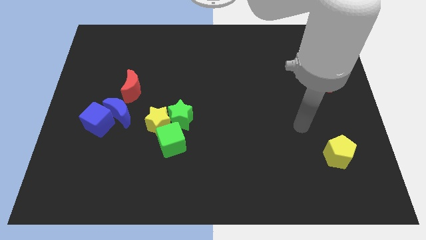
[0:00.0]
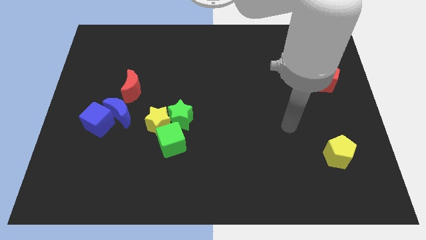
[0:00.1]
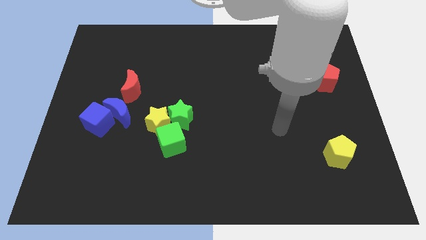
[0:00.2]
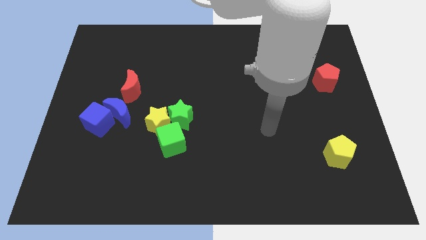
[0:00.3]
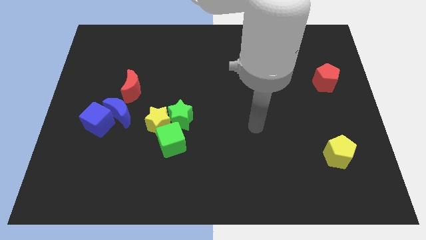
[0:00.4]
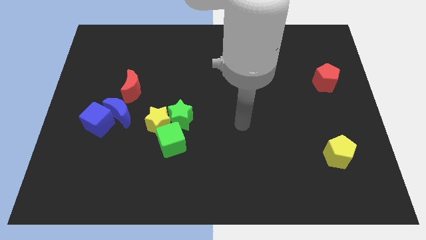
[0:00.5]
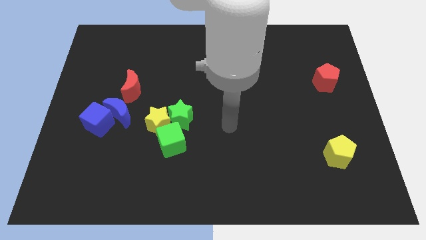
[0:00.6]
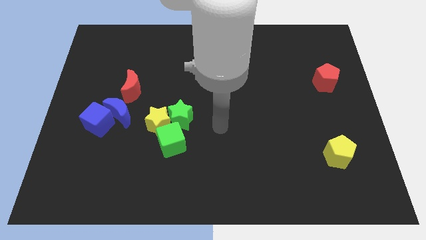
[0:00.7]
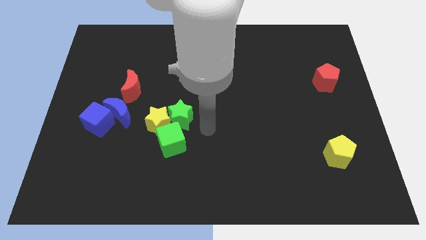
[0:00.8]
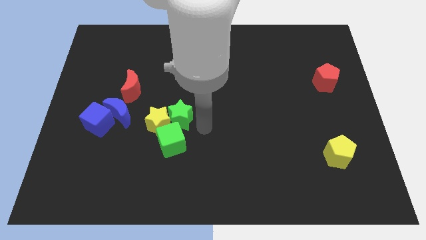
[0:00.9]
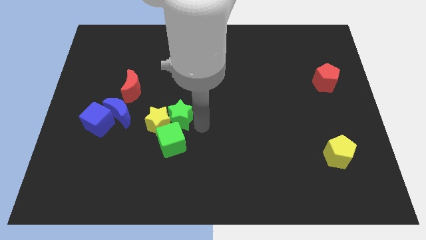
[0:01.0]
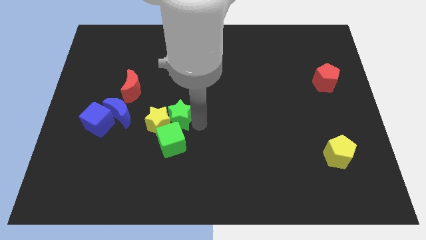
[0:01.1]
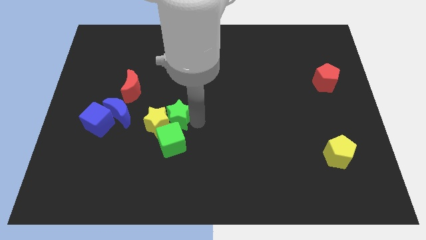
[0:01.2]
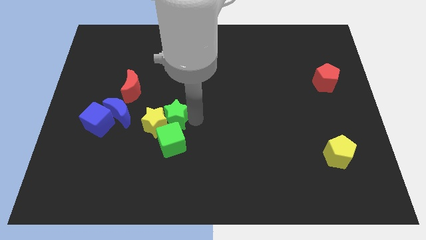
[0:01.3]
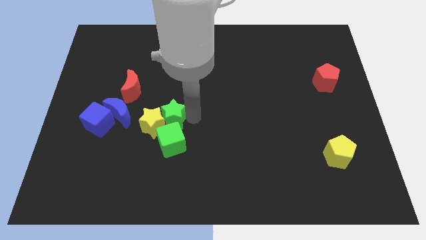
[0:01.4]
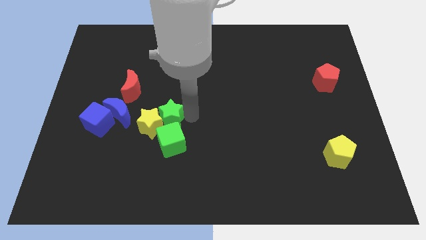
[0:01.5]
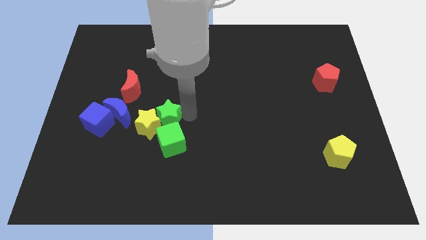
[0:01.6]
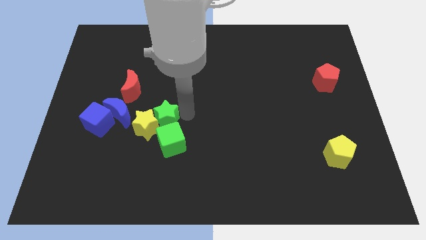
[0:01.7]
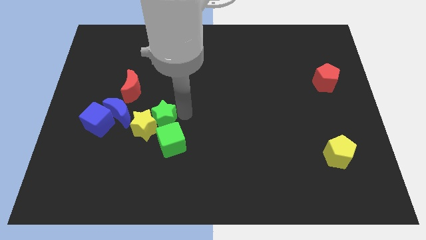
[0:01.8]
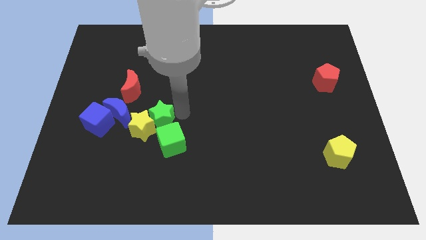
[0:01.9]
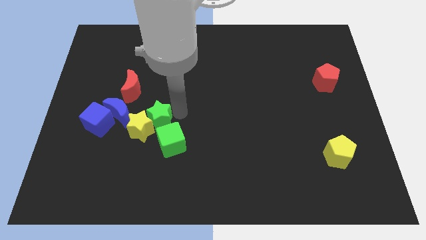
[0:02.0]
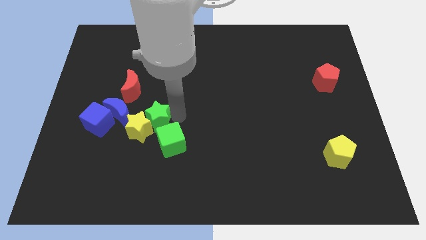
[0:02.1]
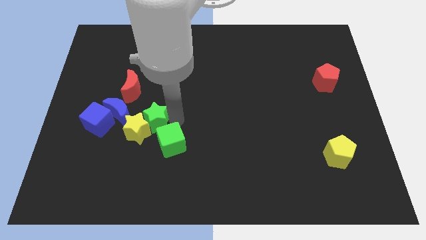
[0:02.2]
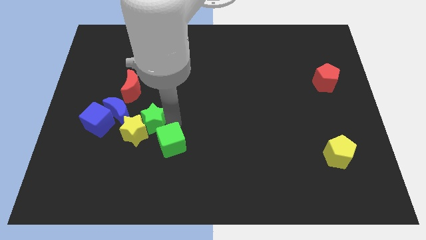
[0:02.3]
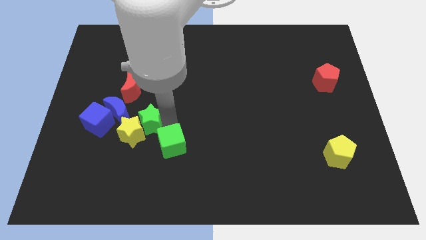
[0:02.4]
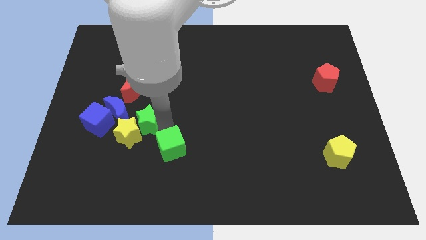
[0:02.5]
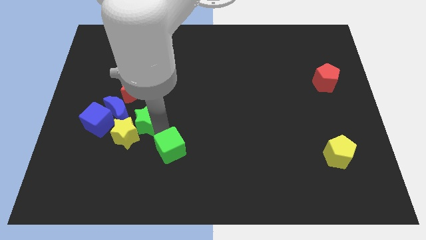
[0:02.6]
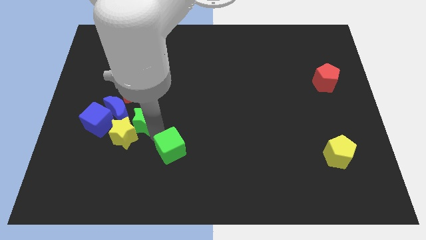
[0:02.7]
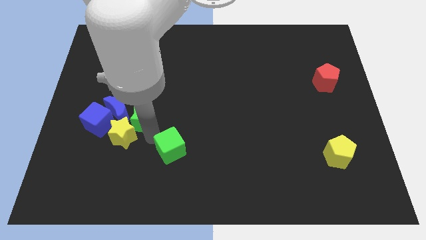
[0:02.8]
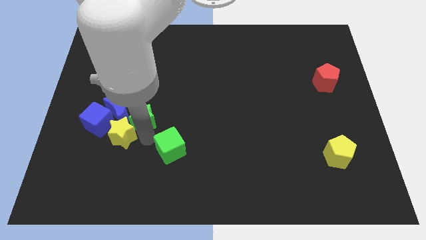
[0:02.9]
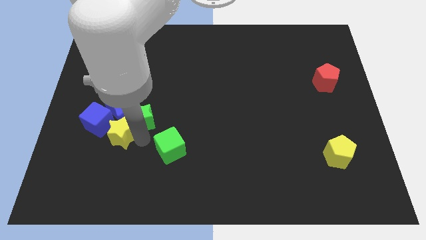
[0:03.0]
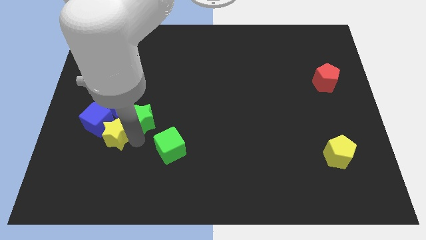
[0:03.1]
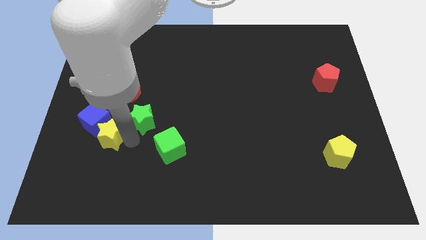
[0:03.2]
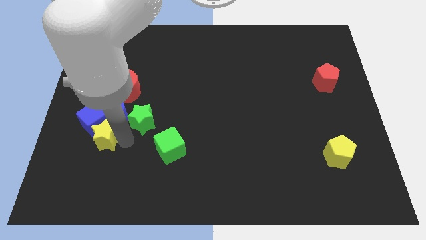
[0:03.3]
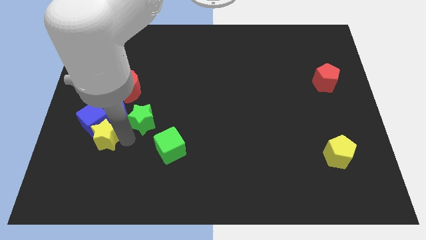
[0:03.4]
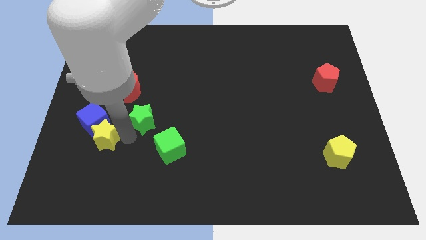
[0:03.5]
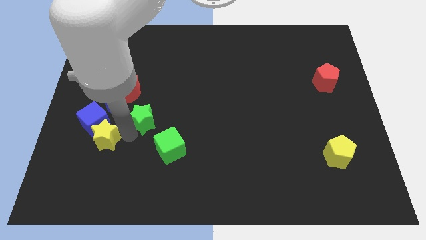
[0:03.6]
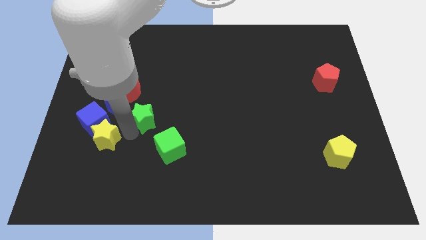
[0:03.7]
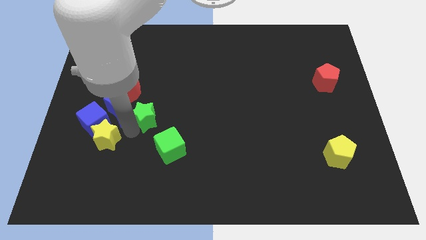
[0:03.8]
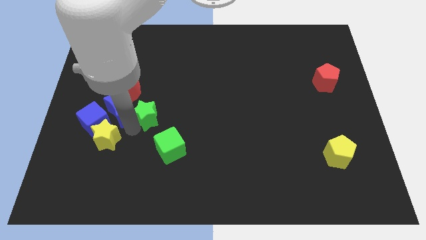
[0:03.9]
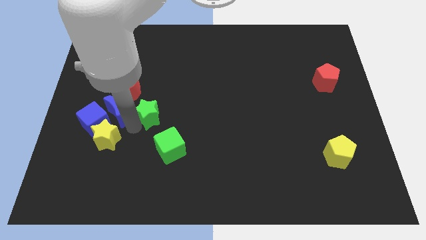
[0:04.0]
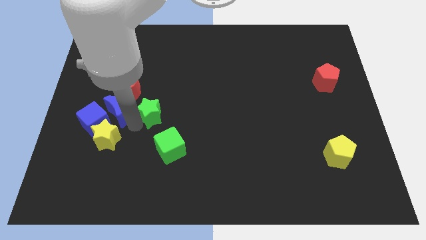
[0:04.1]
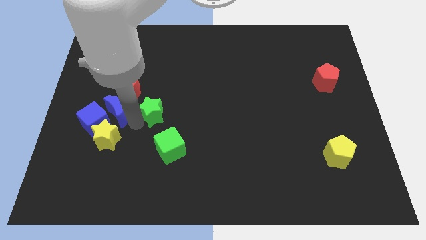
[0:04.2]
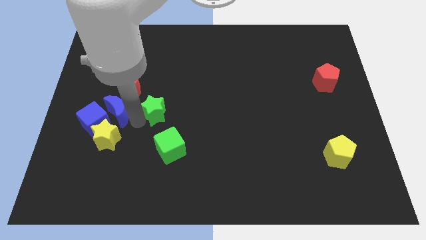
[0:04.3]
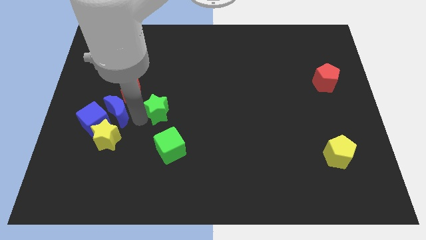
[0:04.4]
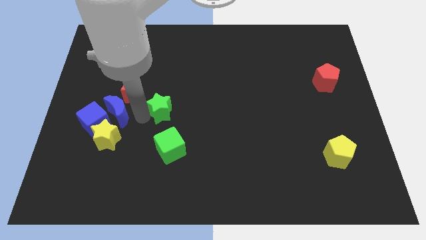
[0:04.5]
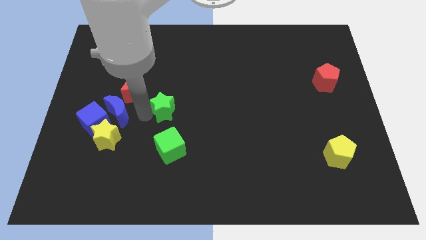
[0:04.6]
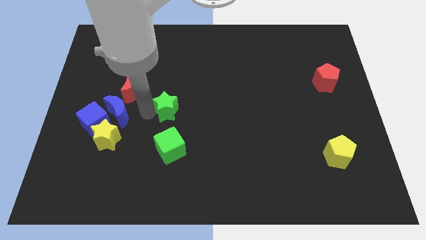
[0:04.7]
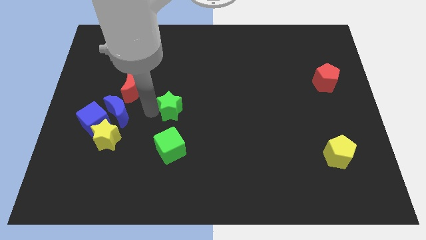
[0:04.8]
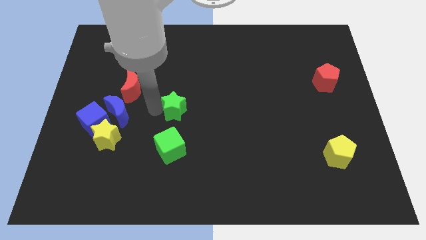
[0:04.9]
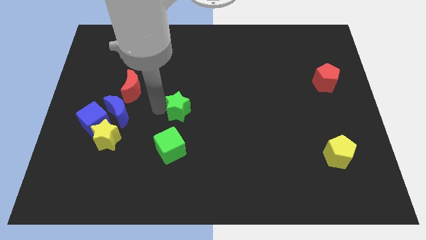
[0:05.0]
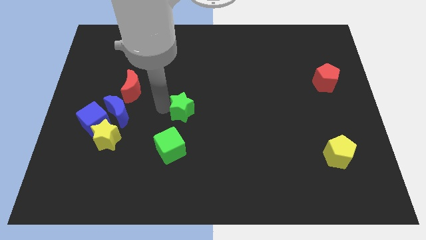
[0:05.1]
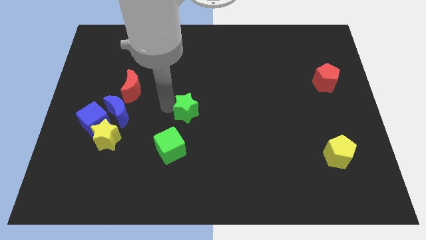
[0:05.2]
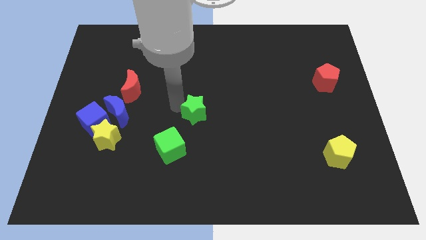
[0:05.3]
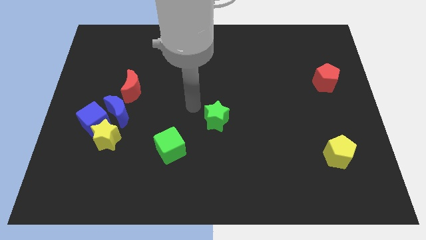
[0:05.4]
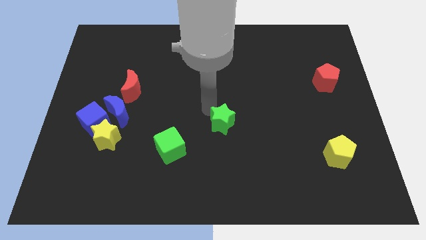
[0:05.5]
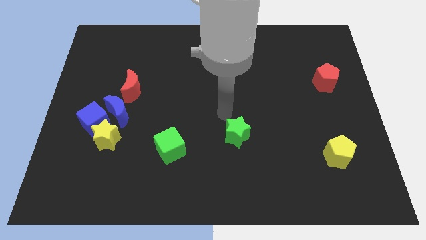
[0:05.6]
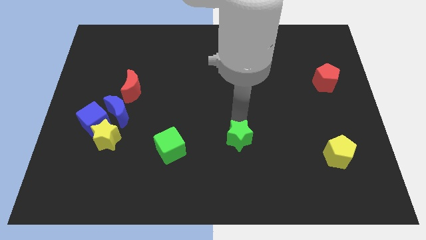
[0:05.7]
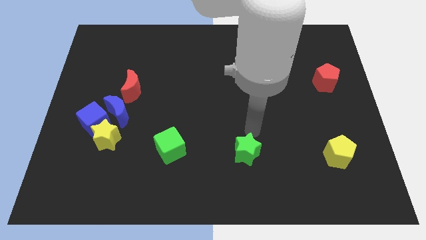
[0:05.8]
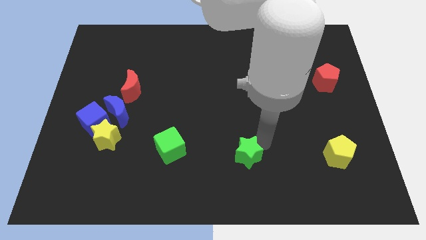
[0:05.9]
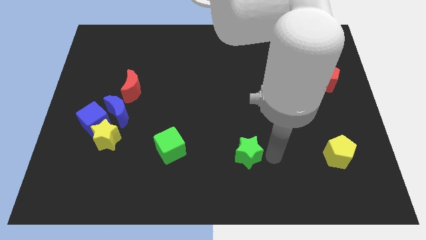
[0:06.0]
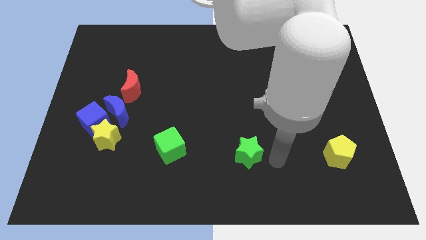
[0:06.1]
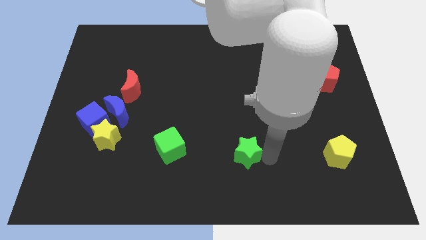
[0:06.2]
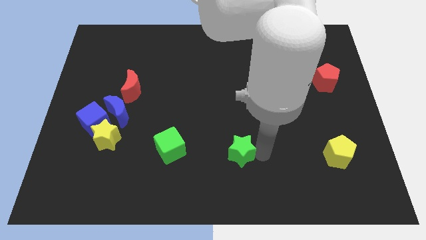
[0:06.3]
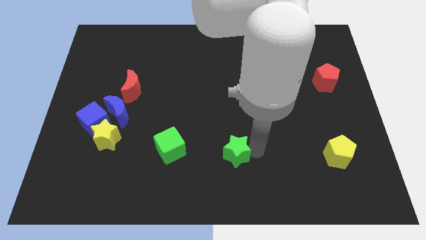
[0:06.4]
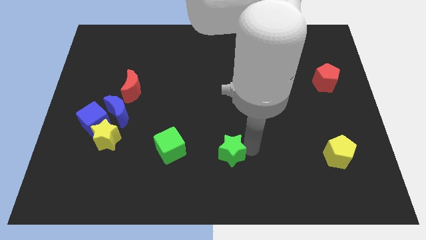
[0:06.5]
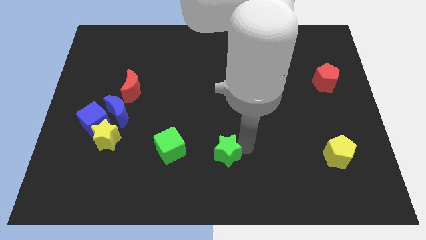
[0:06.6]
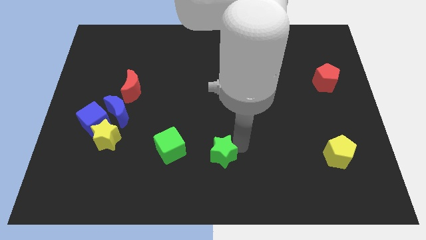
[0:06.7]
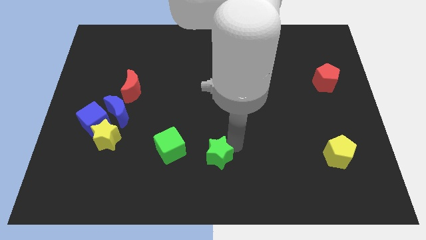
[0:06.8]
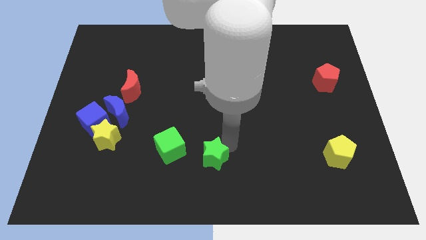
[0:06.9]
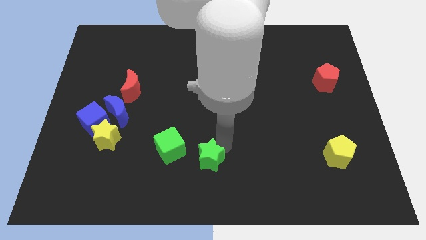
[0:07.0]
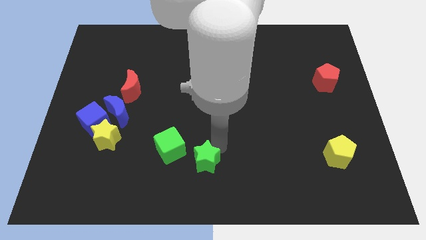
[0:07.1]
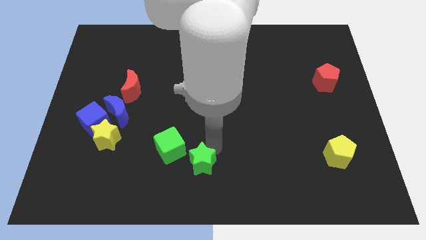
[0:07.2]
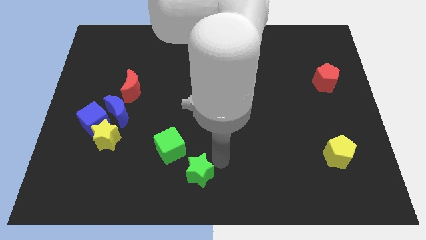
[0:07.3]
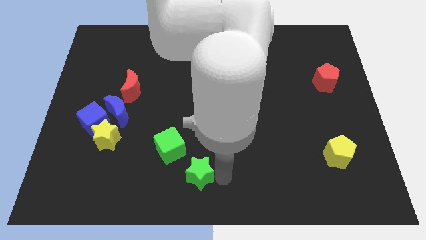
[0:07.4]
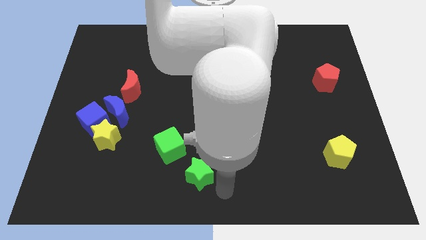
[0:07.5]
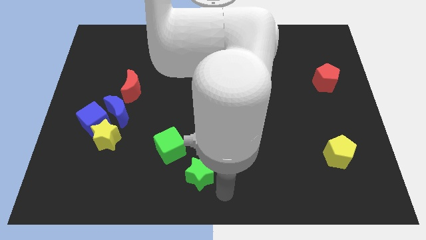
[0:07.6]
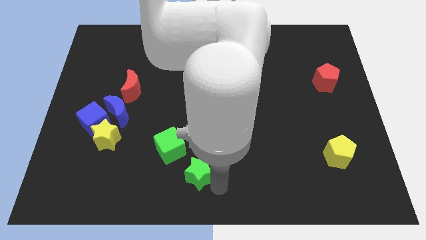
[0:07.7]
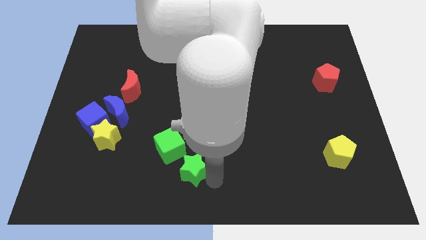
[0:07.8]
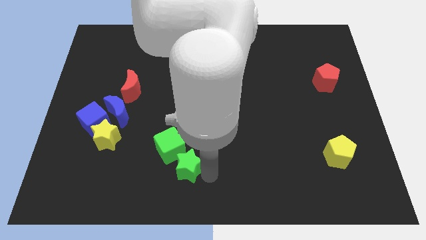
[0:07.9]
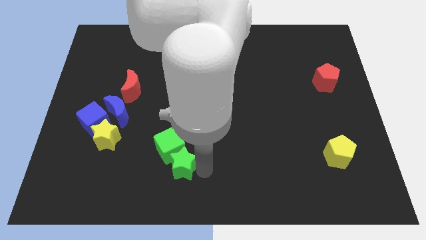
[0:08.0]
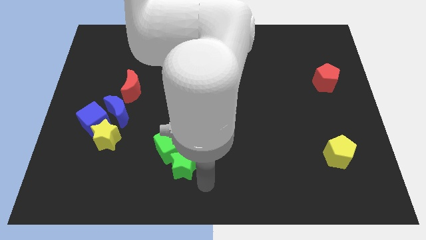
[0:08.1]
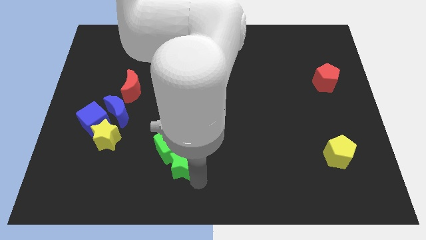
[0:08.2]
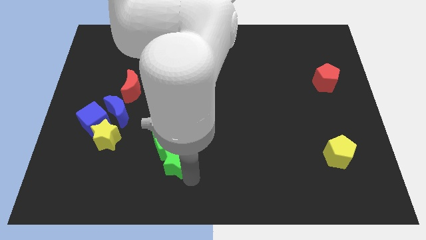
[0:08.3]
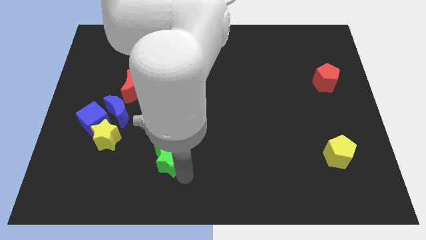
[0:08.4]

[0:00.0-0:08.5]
slide the green star a bit downwards and to the left
